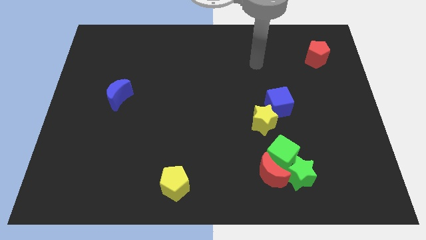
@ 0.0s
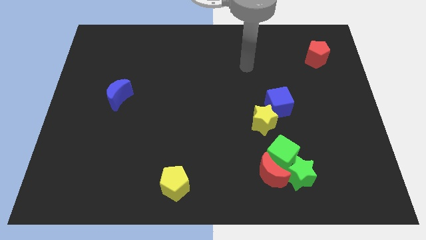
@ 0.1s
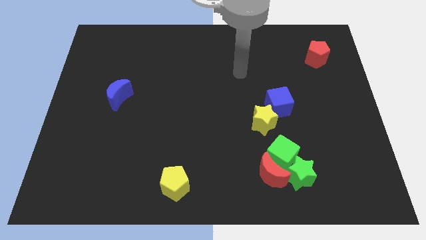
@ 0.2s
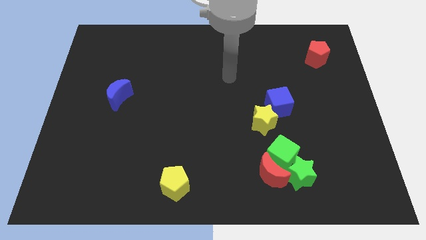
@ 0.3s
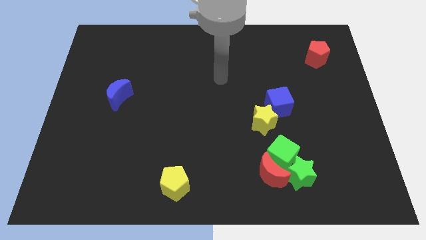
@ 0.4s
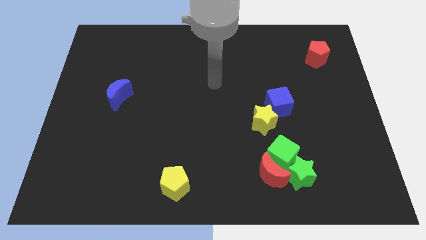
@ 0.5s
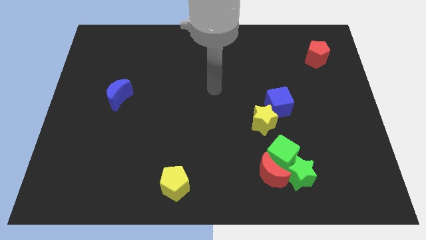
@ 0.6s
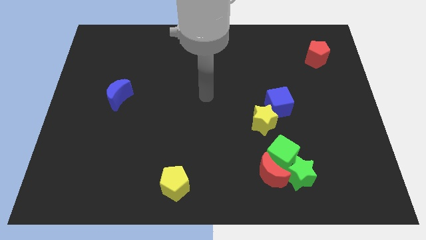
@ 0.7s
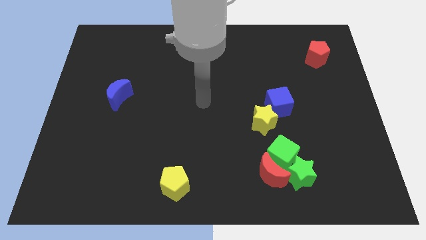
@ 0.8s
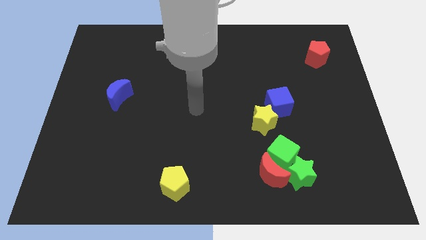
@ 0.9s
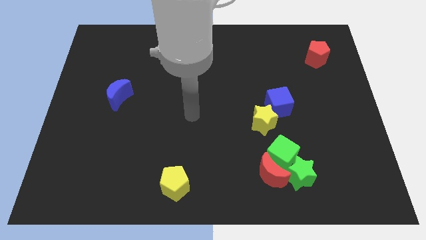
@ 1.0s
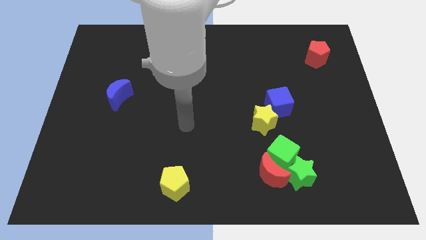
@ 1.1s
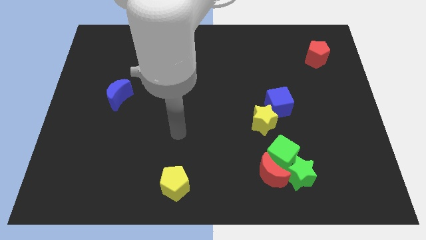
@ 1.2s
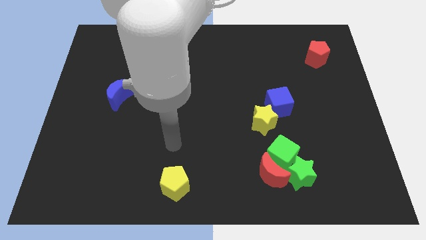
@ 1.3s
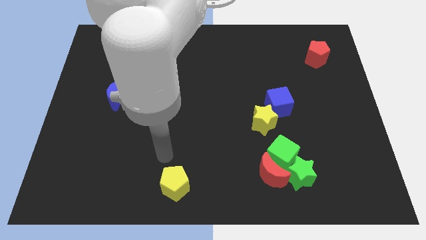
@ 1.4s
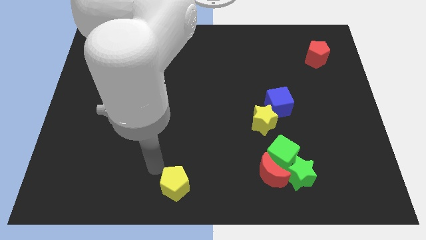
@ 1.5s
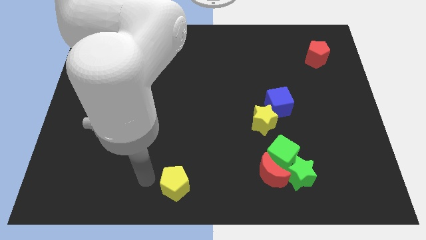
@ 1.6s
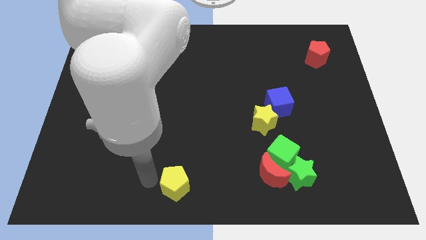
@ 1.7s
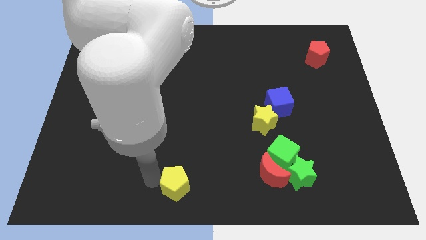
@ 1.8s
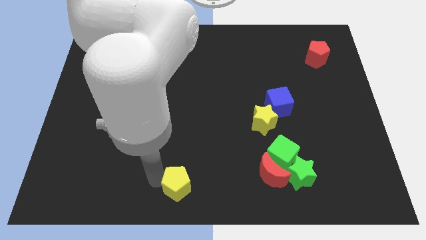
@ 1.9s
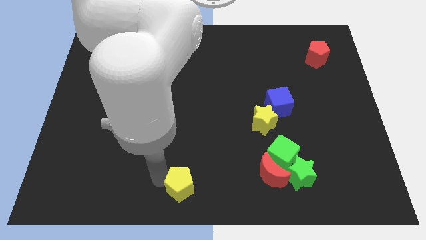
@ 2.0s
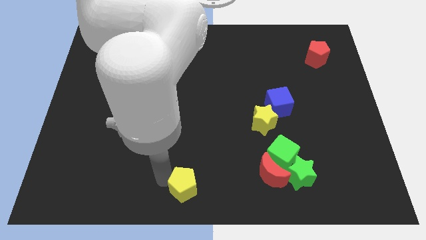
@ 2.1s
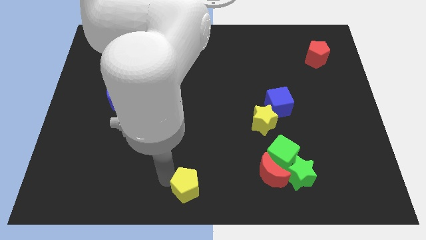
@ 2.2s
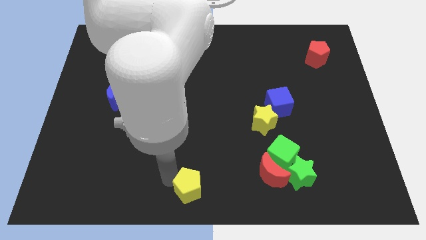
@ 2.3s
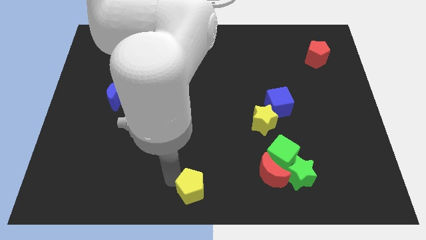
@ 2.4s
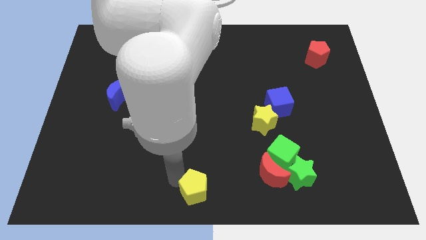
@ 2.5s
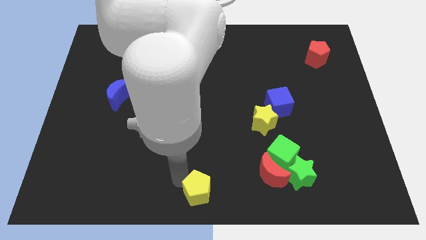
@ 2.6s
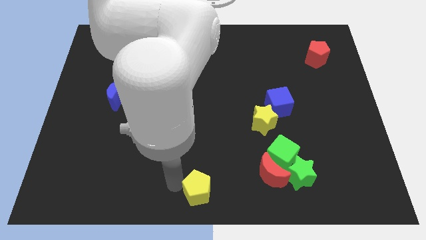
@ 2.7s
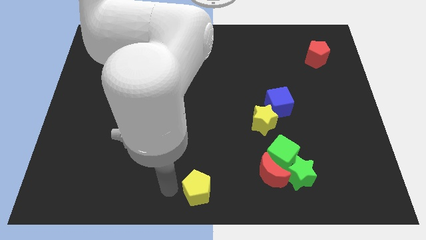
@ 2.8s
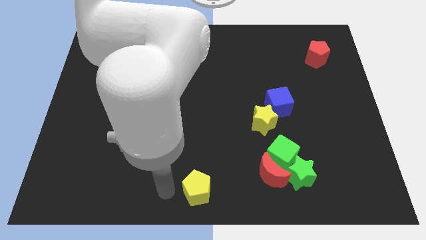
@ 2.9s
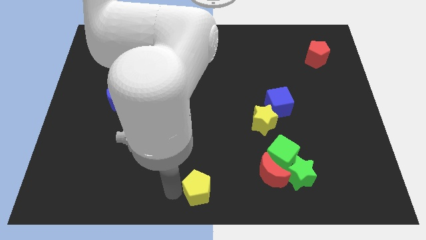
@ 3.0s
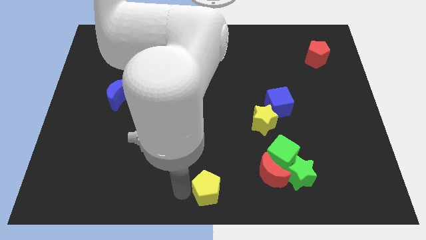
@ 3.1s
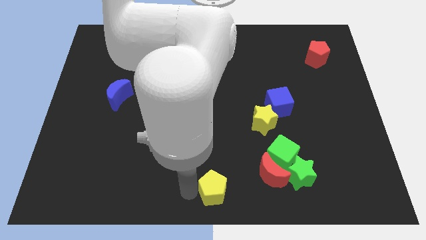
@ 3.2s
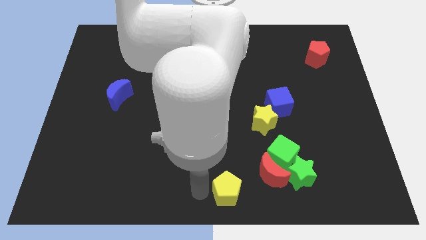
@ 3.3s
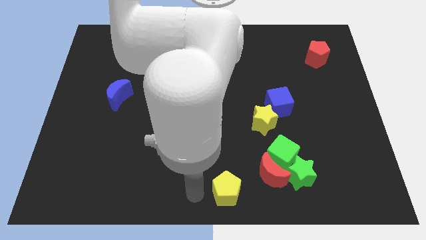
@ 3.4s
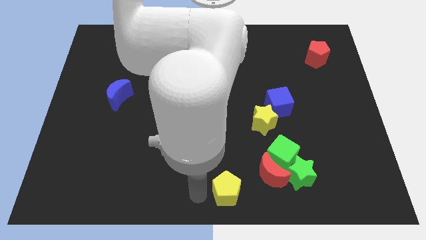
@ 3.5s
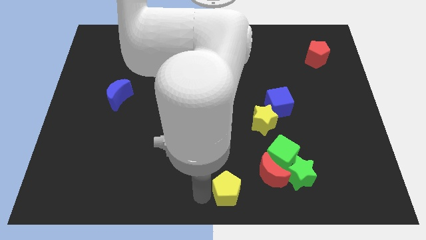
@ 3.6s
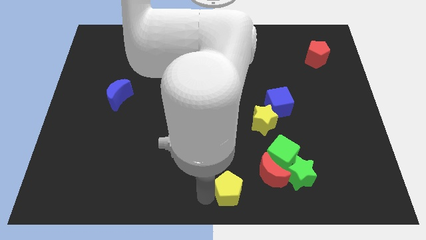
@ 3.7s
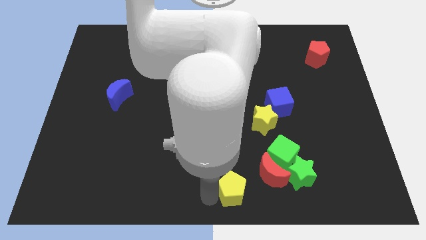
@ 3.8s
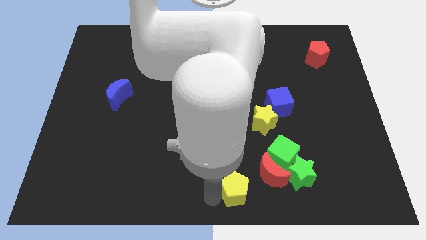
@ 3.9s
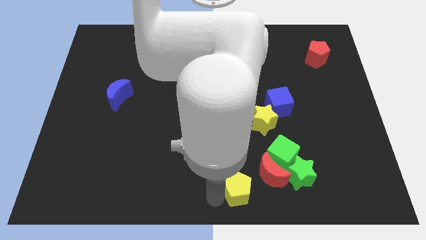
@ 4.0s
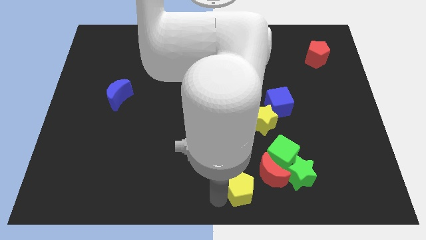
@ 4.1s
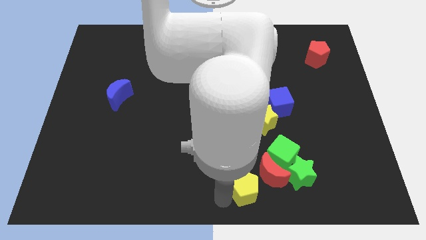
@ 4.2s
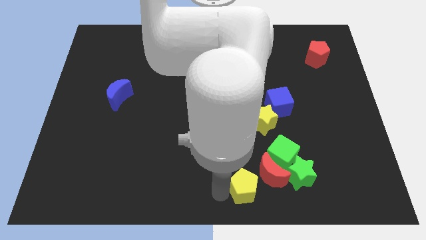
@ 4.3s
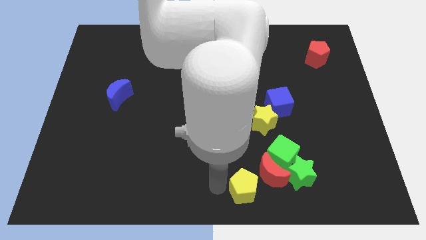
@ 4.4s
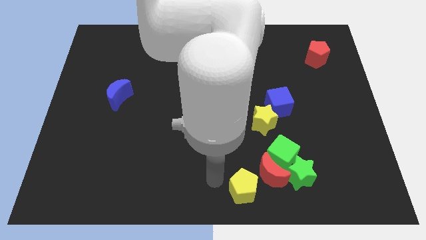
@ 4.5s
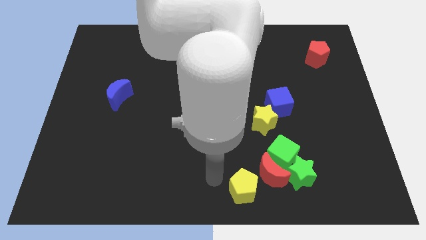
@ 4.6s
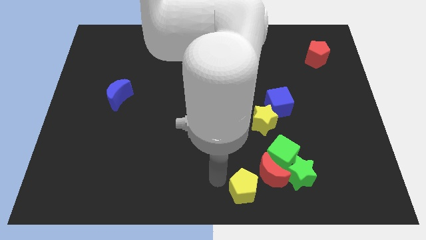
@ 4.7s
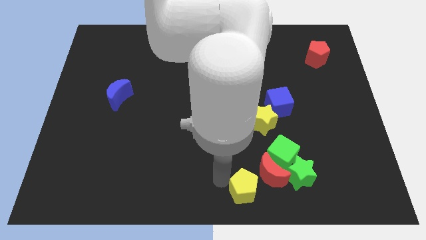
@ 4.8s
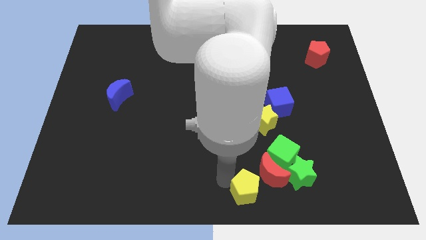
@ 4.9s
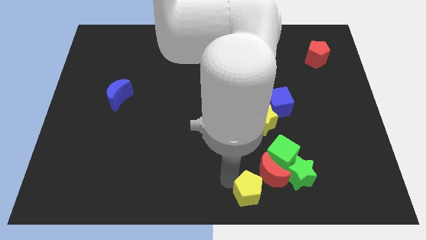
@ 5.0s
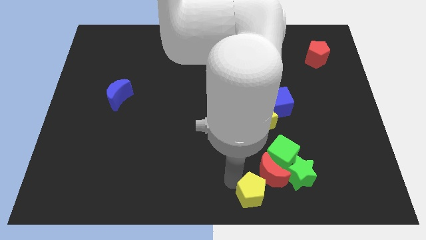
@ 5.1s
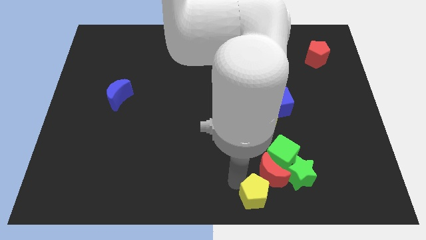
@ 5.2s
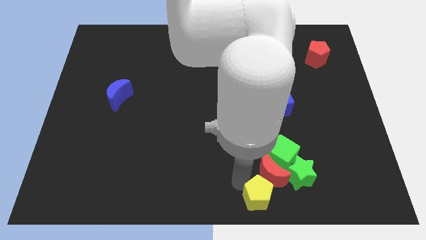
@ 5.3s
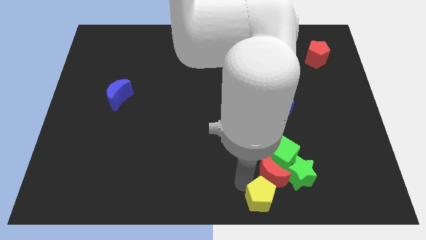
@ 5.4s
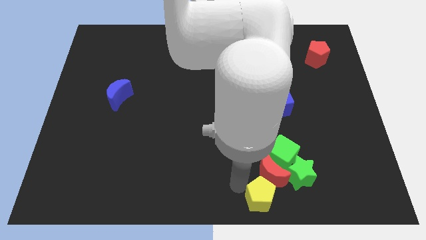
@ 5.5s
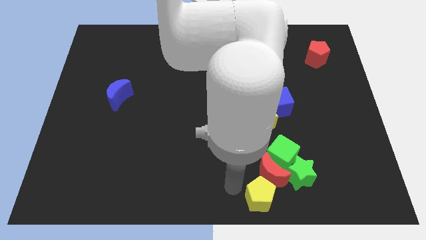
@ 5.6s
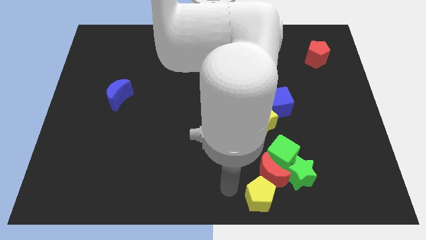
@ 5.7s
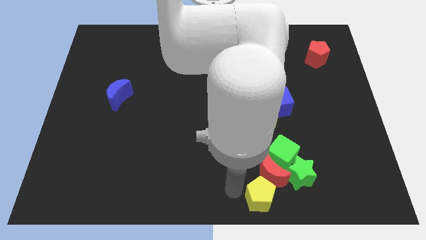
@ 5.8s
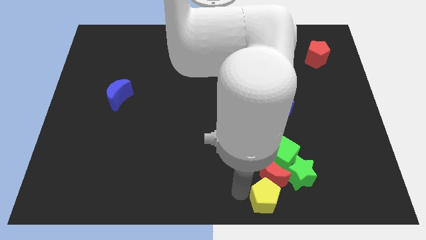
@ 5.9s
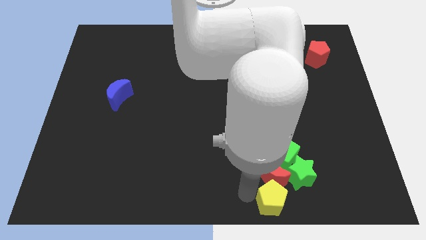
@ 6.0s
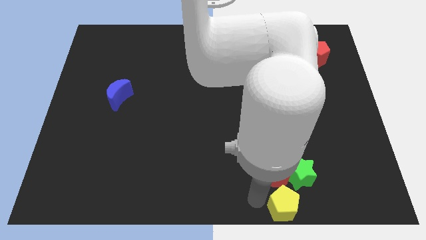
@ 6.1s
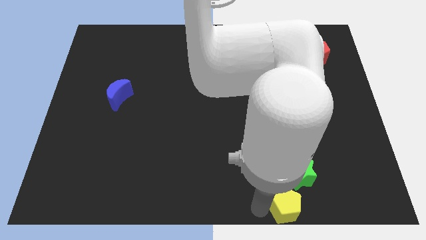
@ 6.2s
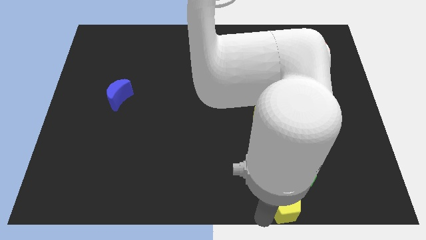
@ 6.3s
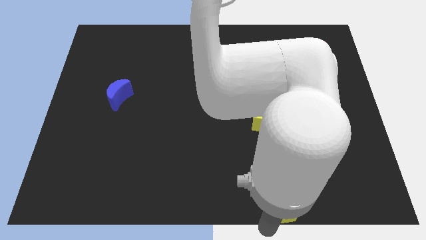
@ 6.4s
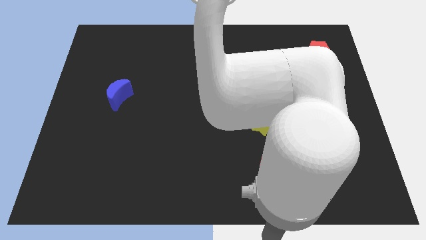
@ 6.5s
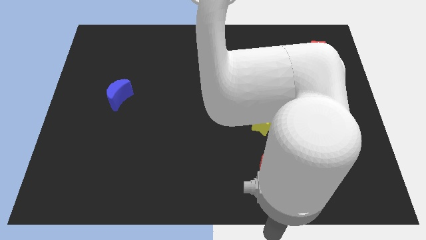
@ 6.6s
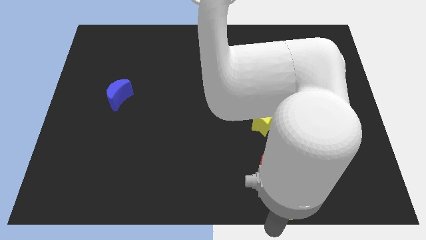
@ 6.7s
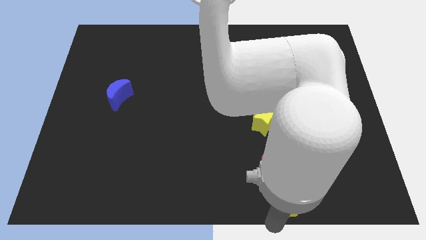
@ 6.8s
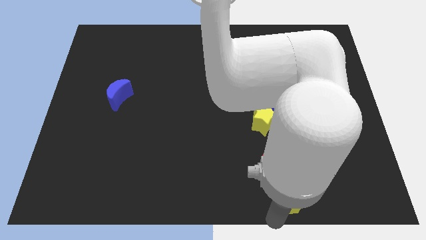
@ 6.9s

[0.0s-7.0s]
push the yellow pentagon to the green star
